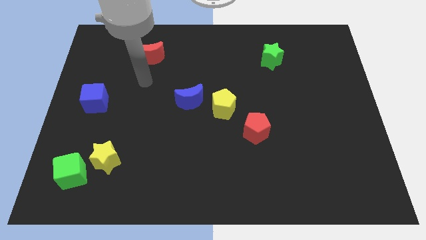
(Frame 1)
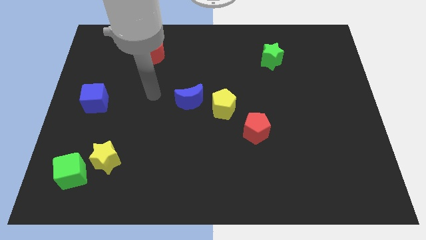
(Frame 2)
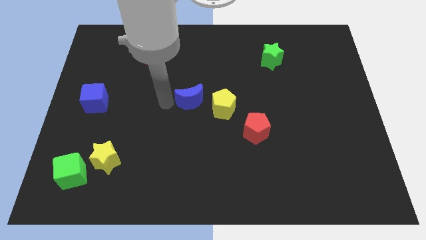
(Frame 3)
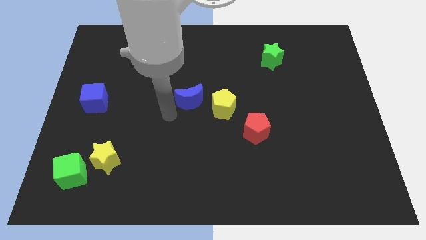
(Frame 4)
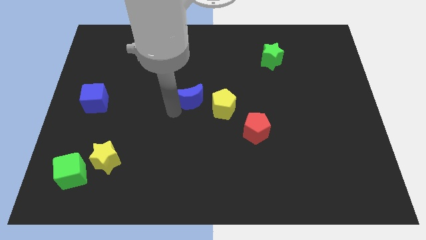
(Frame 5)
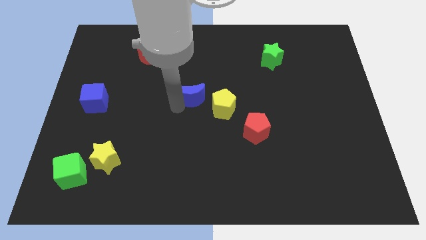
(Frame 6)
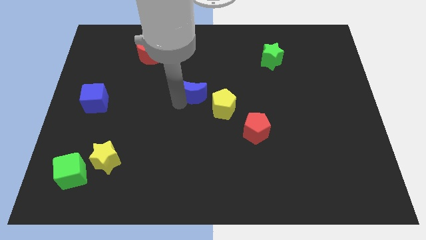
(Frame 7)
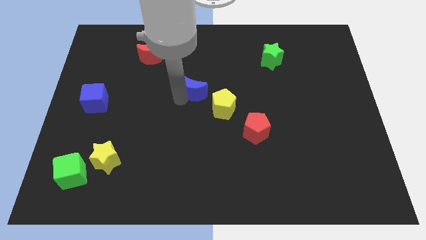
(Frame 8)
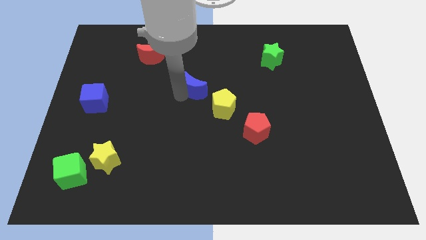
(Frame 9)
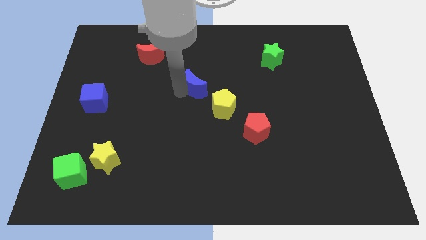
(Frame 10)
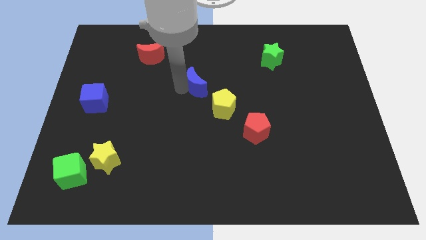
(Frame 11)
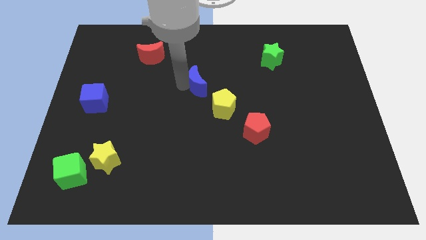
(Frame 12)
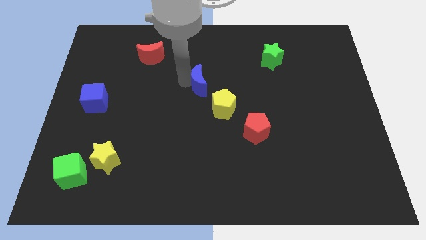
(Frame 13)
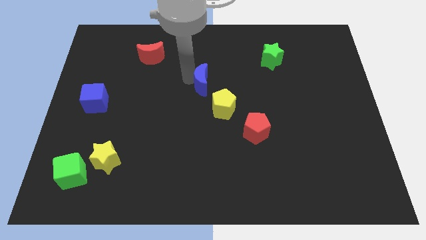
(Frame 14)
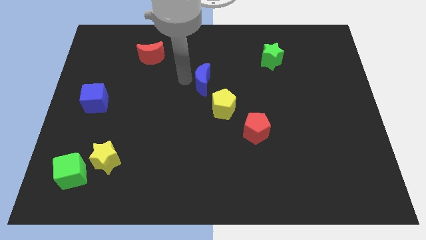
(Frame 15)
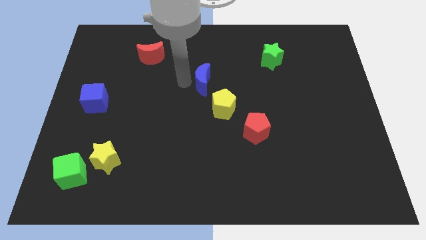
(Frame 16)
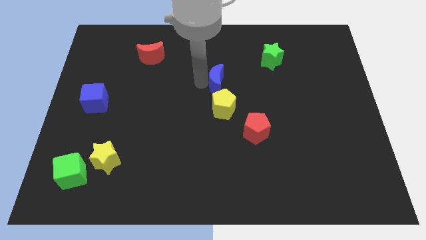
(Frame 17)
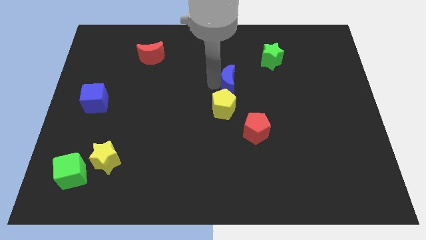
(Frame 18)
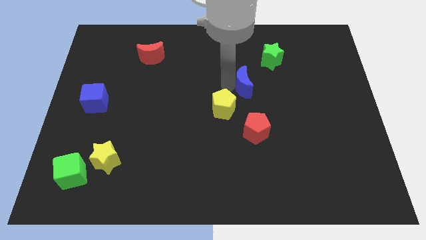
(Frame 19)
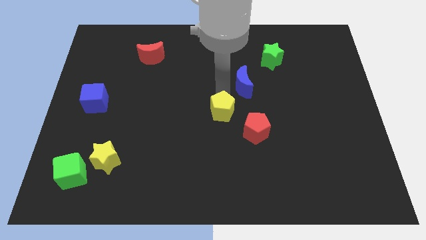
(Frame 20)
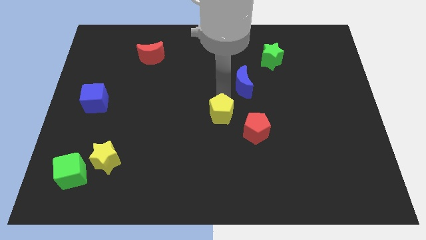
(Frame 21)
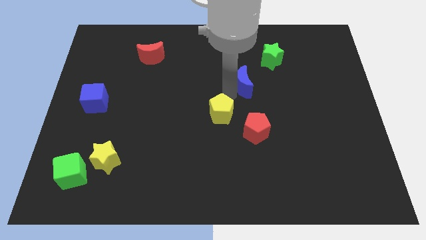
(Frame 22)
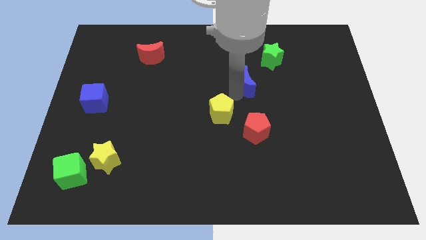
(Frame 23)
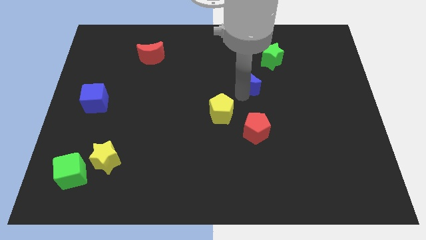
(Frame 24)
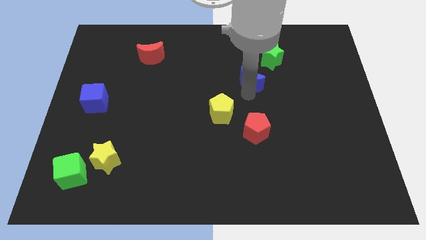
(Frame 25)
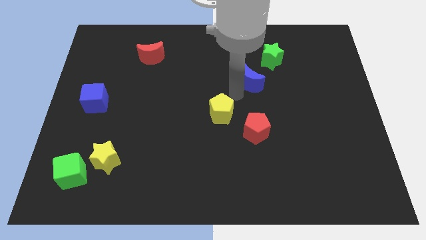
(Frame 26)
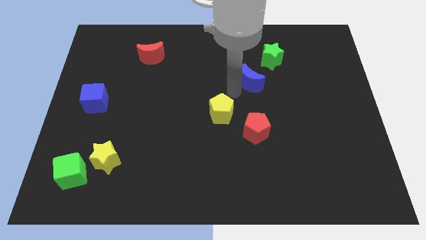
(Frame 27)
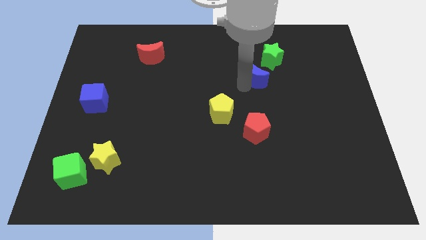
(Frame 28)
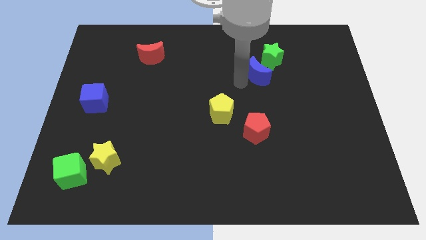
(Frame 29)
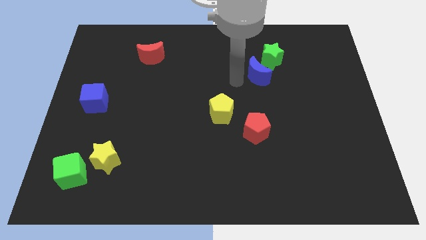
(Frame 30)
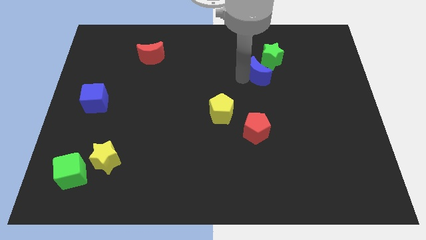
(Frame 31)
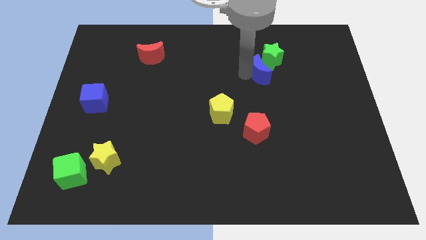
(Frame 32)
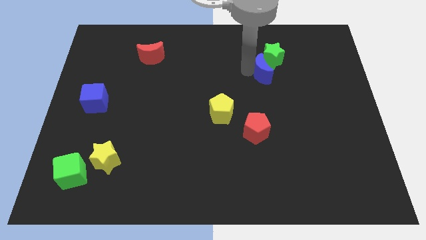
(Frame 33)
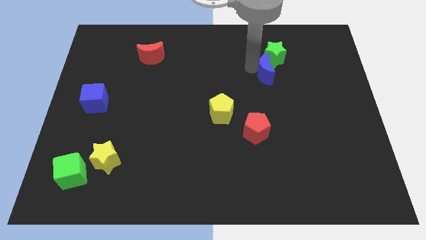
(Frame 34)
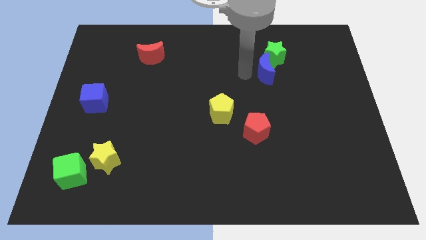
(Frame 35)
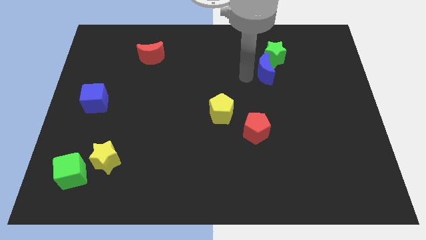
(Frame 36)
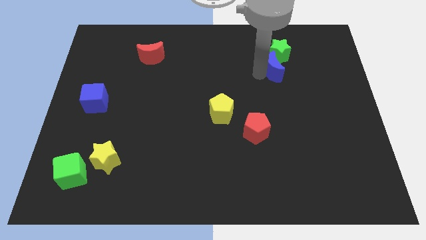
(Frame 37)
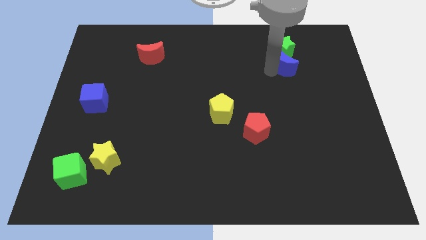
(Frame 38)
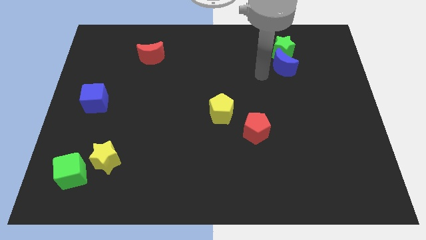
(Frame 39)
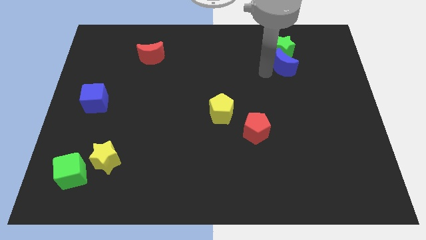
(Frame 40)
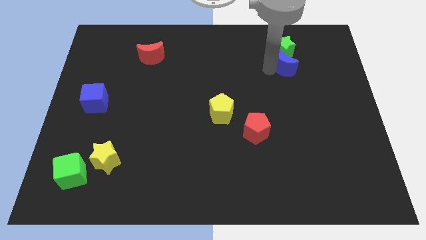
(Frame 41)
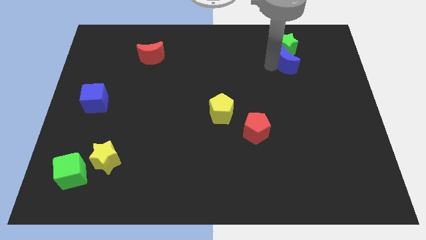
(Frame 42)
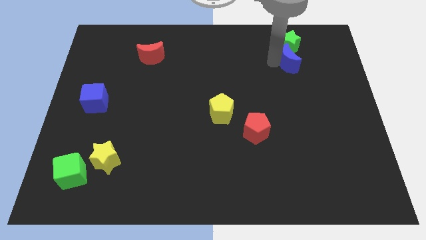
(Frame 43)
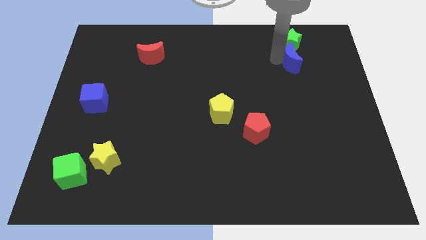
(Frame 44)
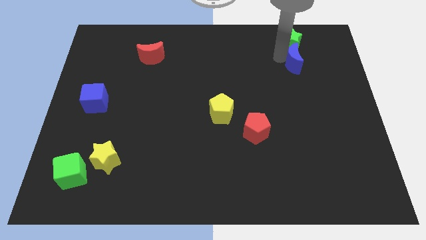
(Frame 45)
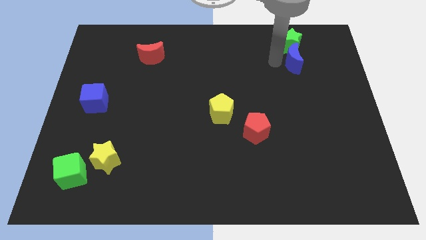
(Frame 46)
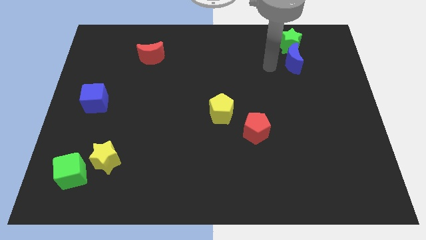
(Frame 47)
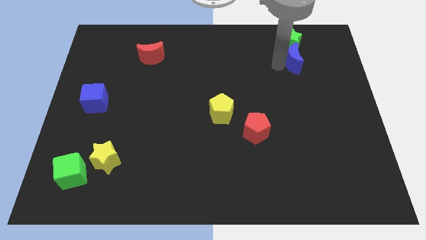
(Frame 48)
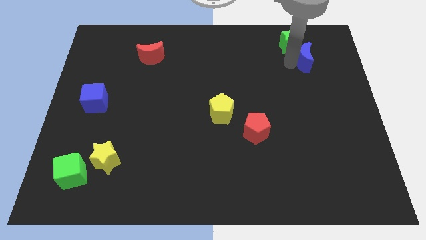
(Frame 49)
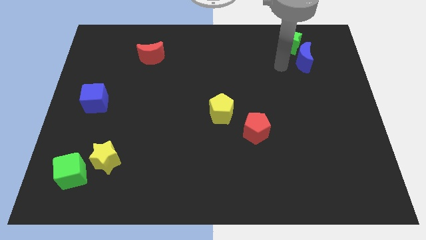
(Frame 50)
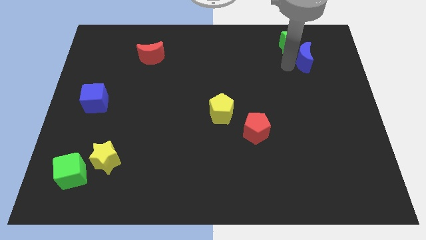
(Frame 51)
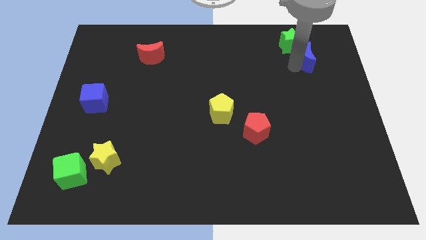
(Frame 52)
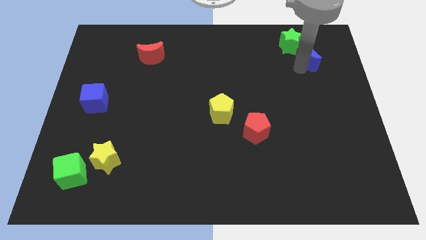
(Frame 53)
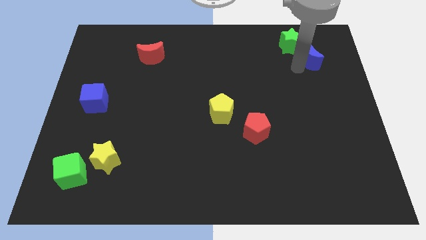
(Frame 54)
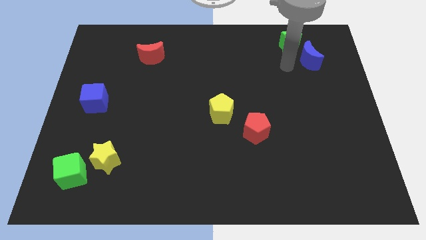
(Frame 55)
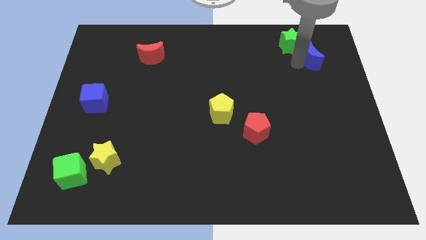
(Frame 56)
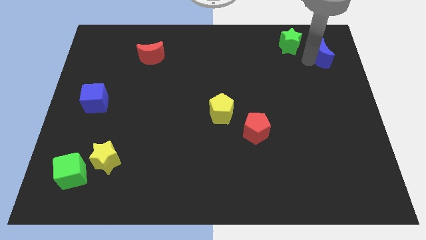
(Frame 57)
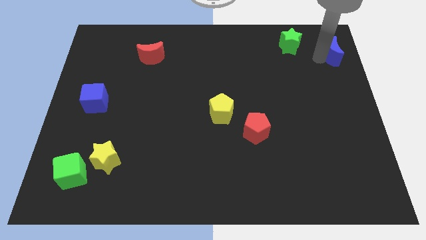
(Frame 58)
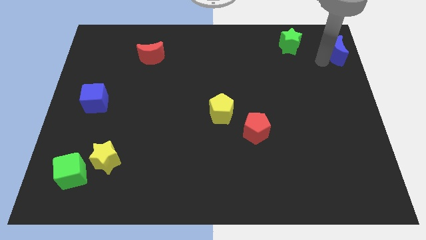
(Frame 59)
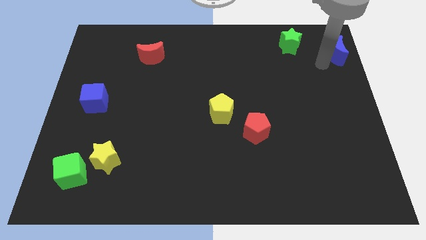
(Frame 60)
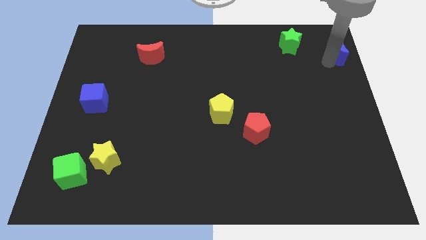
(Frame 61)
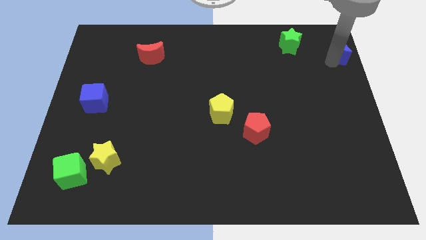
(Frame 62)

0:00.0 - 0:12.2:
slide the blue moon to the top right
